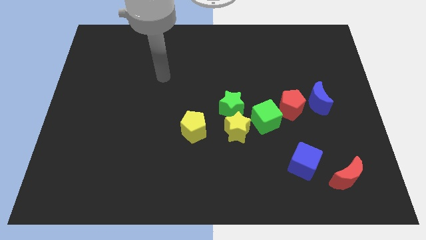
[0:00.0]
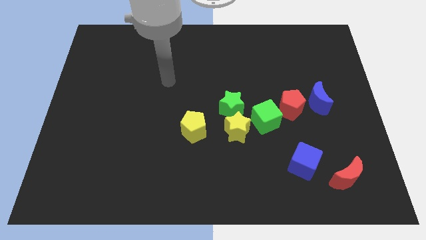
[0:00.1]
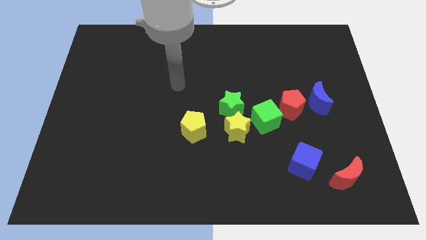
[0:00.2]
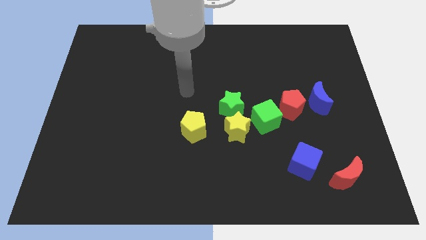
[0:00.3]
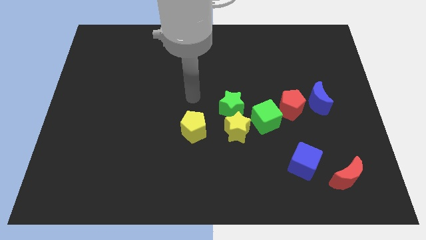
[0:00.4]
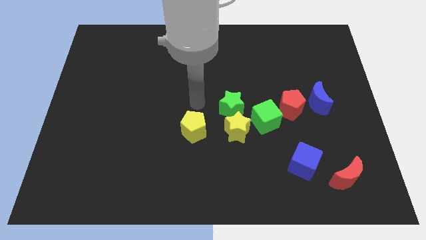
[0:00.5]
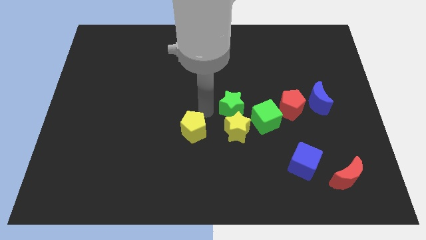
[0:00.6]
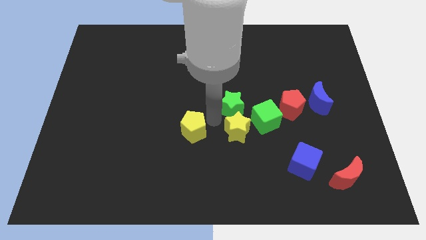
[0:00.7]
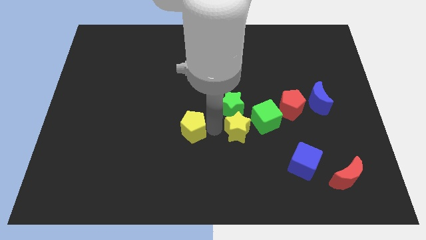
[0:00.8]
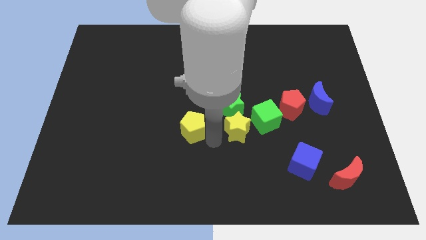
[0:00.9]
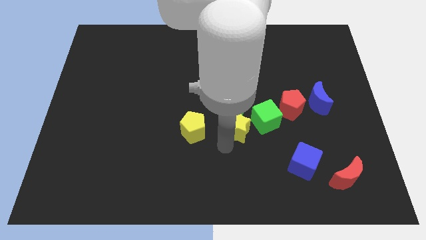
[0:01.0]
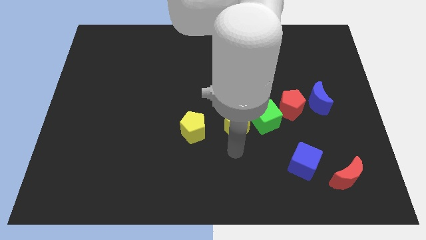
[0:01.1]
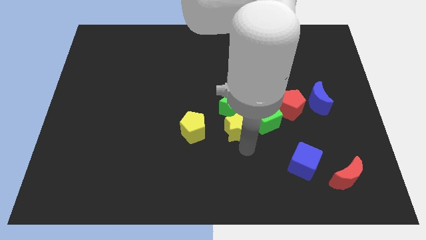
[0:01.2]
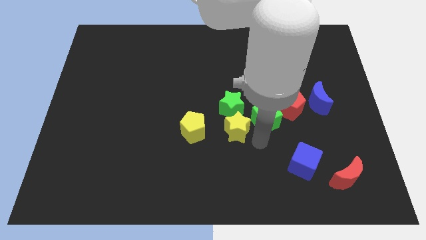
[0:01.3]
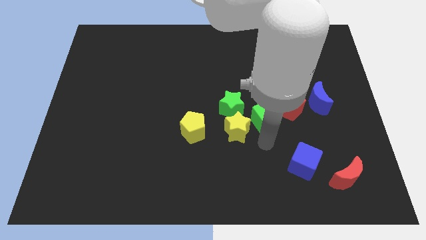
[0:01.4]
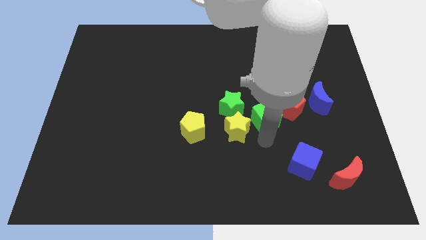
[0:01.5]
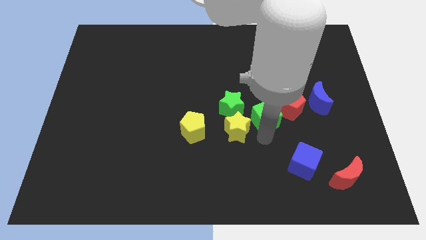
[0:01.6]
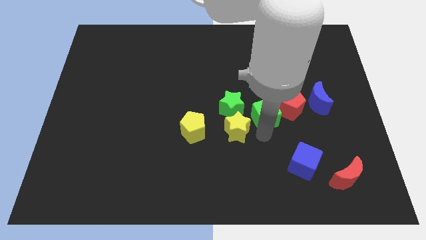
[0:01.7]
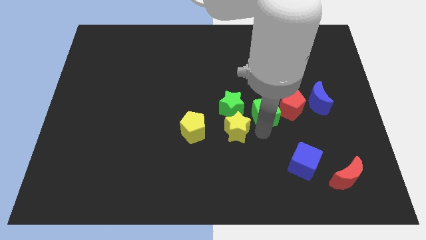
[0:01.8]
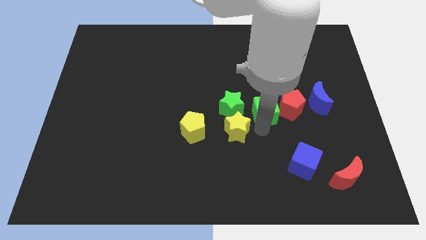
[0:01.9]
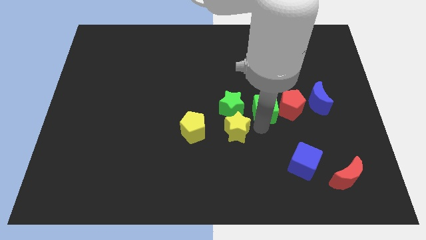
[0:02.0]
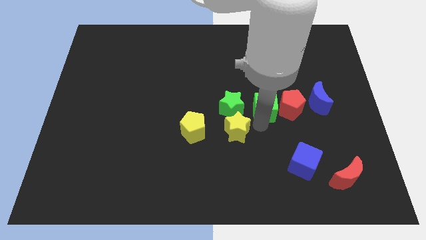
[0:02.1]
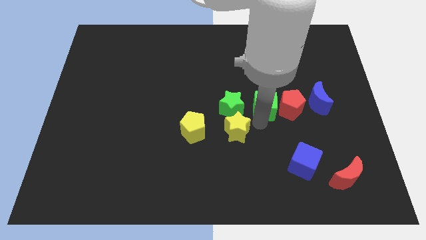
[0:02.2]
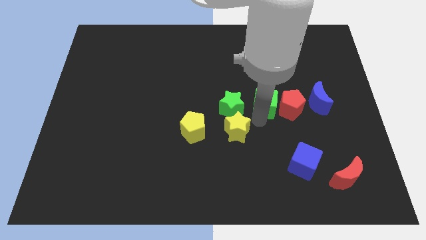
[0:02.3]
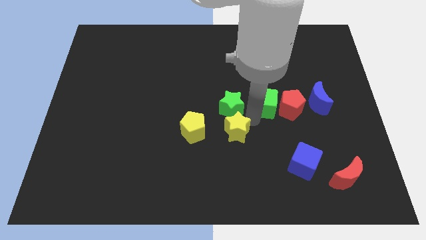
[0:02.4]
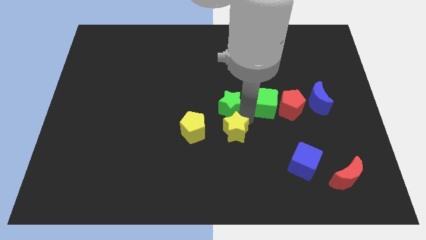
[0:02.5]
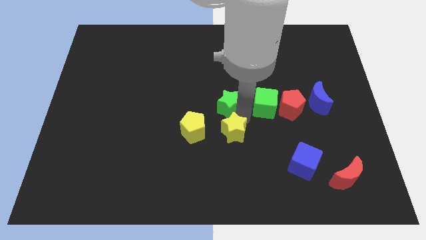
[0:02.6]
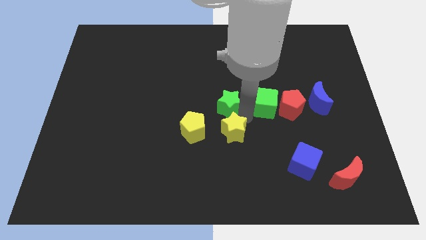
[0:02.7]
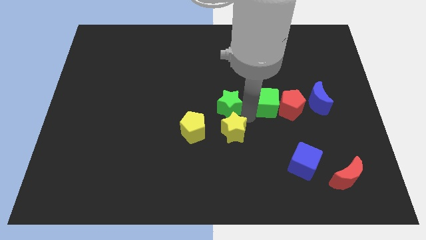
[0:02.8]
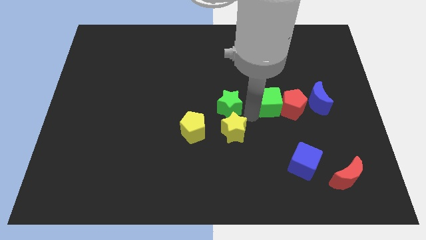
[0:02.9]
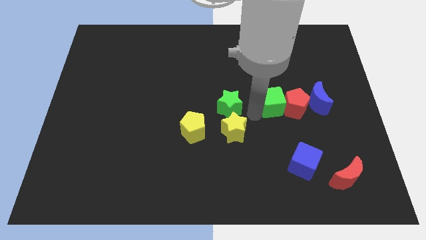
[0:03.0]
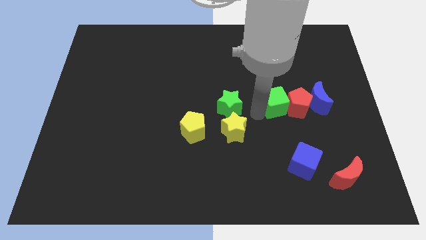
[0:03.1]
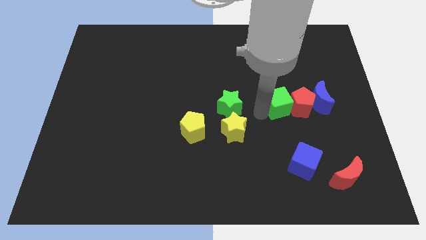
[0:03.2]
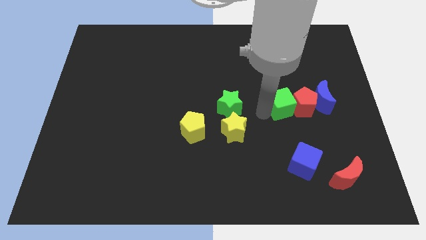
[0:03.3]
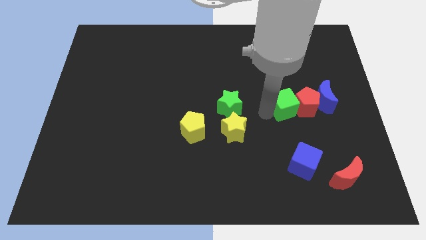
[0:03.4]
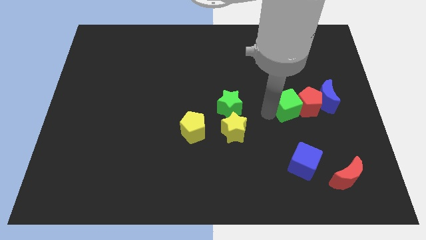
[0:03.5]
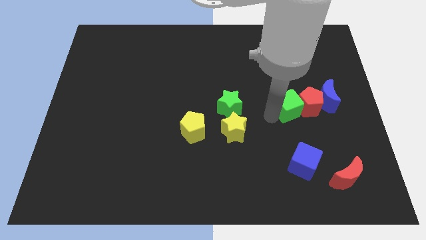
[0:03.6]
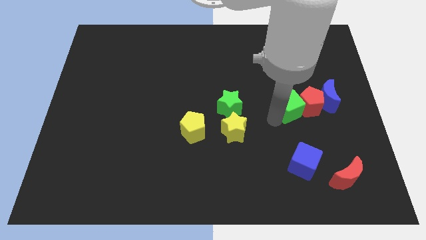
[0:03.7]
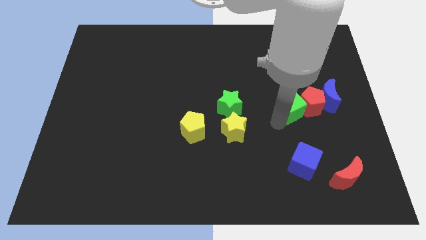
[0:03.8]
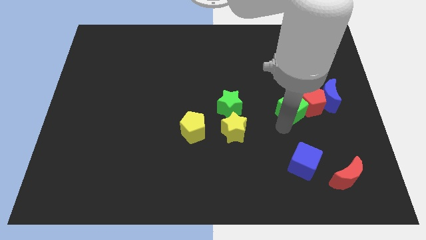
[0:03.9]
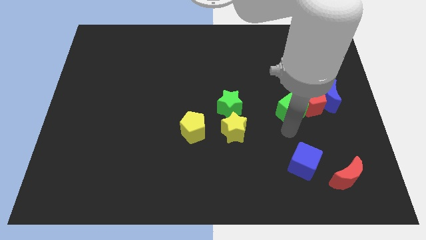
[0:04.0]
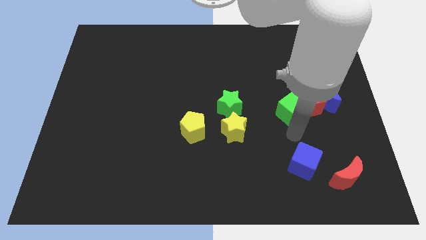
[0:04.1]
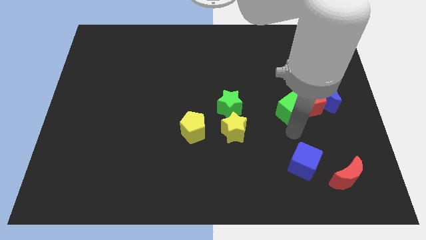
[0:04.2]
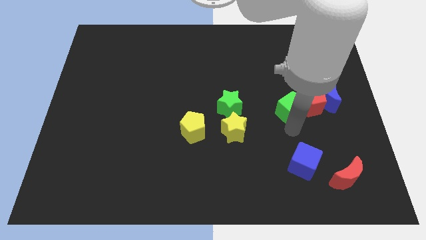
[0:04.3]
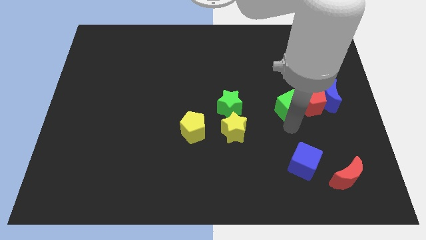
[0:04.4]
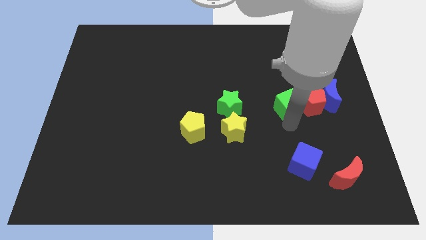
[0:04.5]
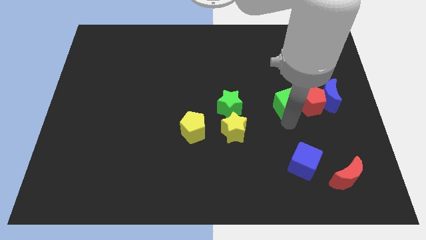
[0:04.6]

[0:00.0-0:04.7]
push the green cube diagonally upwards and to the right slightly

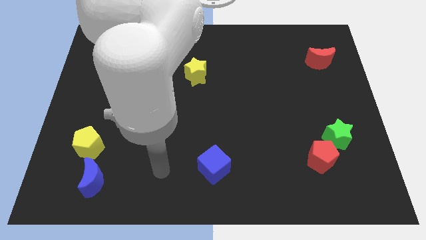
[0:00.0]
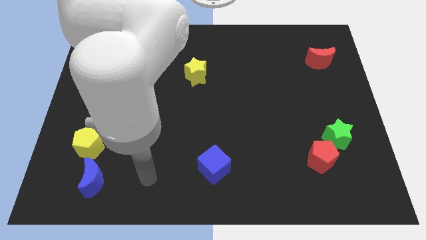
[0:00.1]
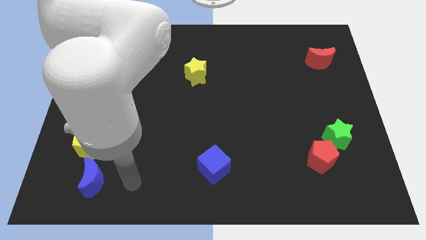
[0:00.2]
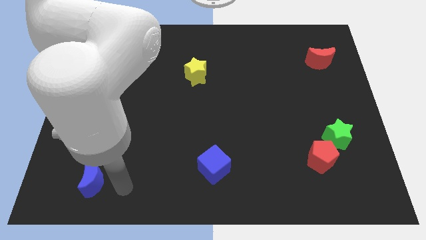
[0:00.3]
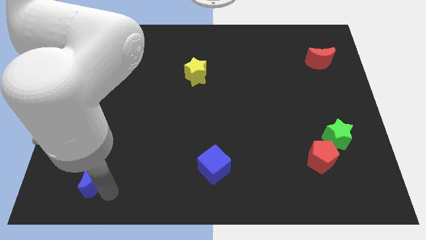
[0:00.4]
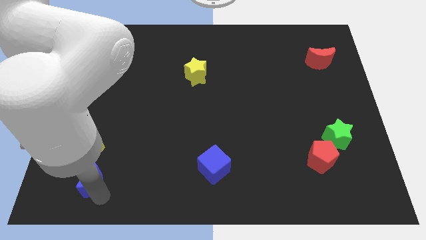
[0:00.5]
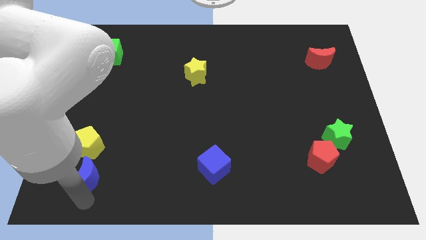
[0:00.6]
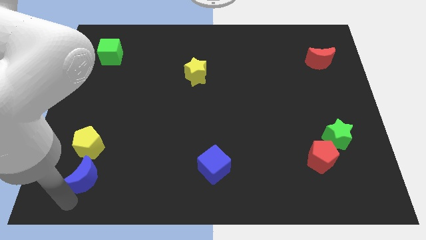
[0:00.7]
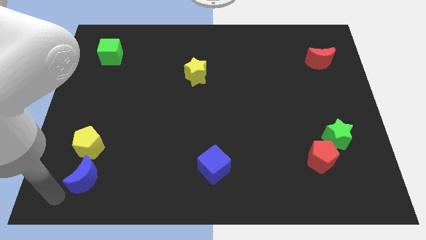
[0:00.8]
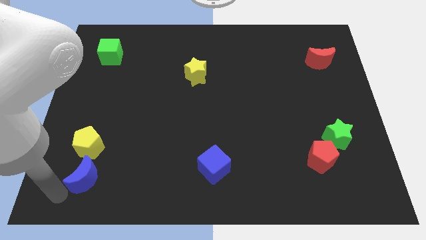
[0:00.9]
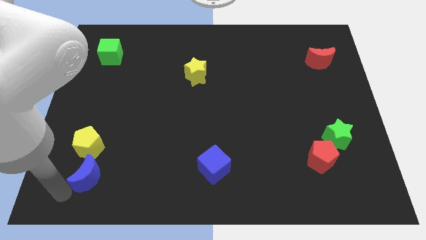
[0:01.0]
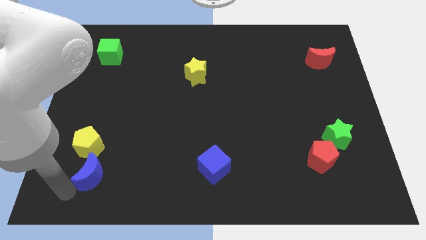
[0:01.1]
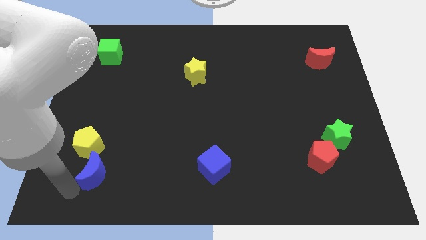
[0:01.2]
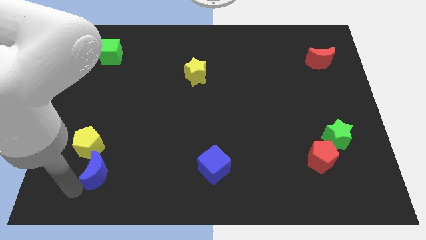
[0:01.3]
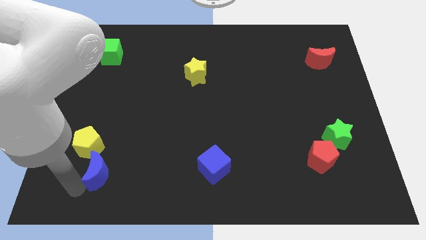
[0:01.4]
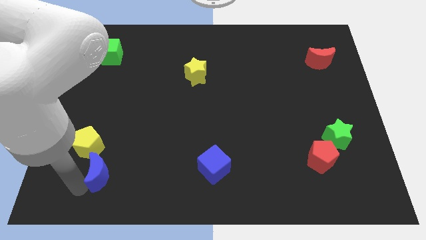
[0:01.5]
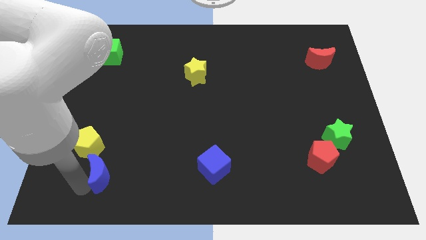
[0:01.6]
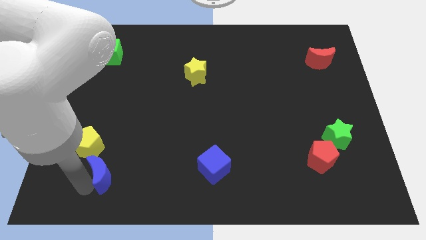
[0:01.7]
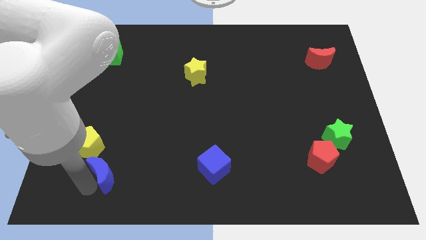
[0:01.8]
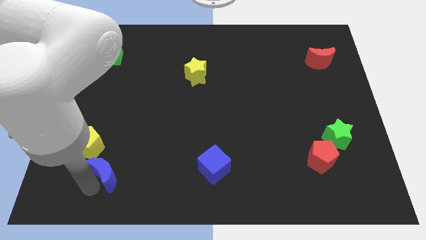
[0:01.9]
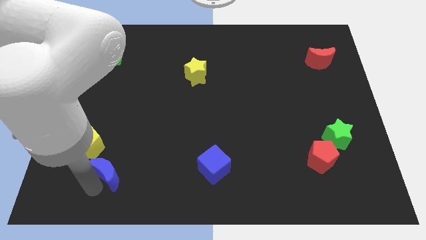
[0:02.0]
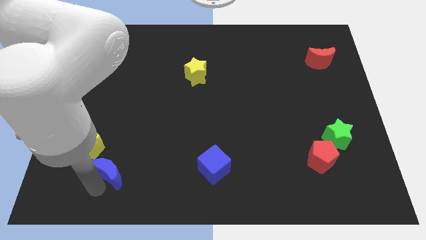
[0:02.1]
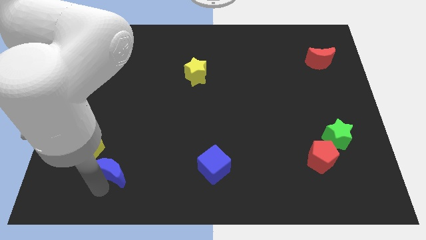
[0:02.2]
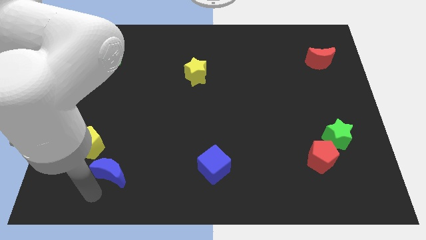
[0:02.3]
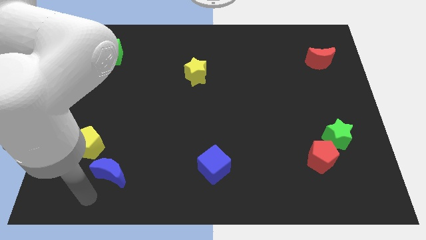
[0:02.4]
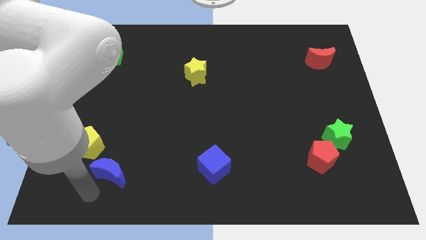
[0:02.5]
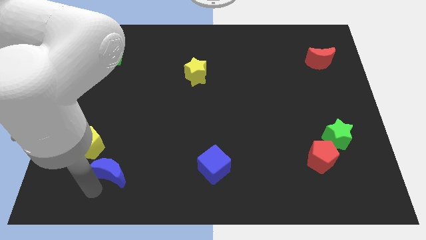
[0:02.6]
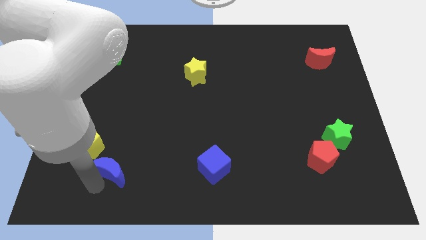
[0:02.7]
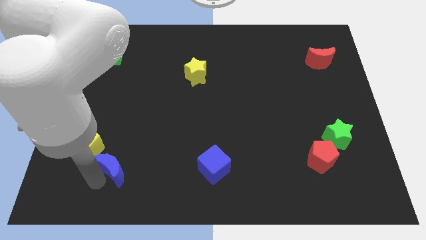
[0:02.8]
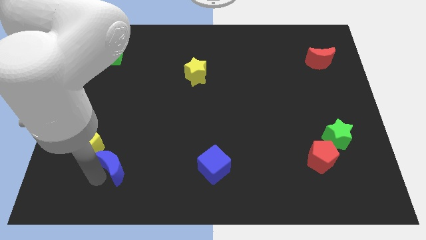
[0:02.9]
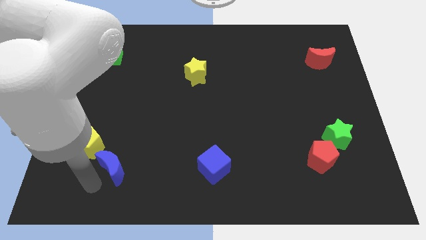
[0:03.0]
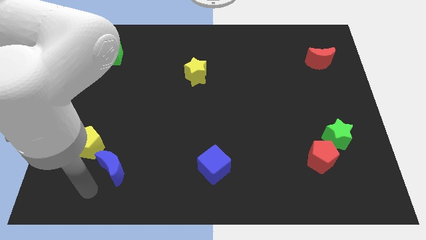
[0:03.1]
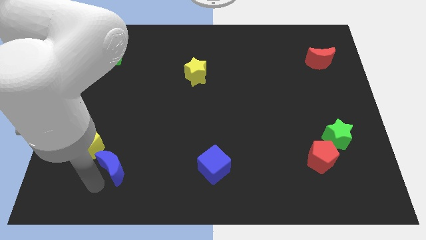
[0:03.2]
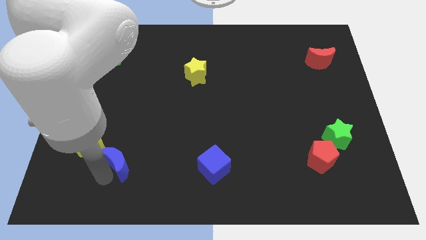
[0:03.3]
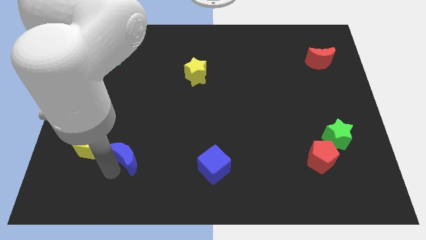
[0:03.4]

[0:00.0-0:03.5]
push the blue moon slightly diagonally up and to the right
